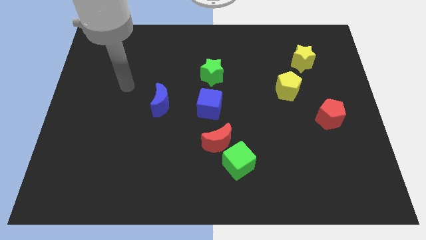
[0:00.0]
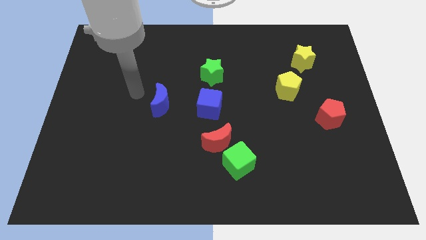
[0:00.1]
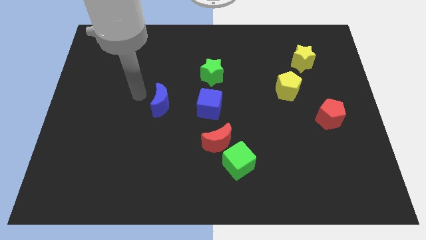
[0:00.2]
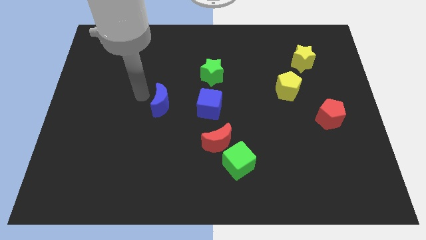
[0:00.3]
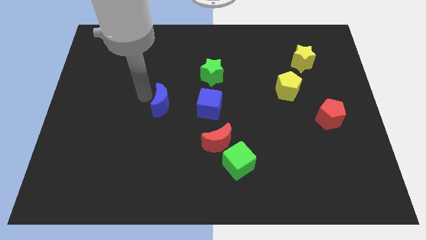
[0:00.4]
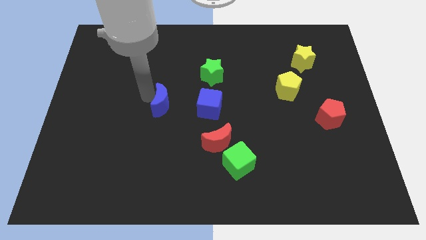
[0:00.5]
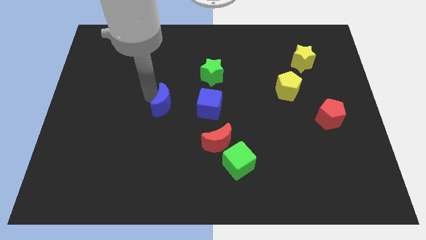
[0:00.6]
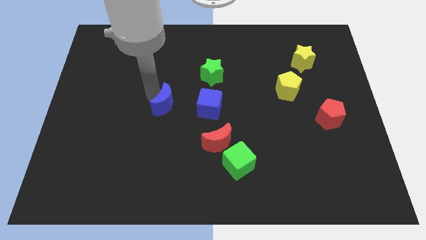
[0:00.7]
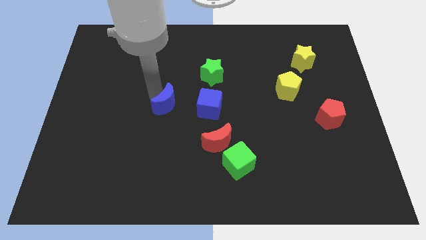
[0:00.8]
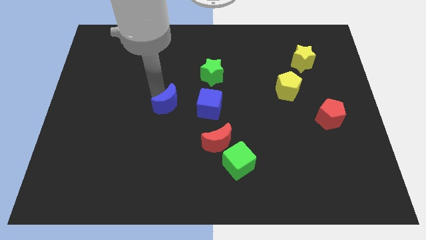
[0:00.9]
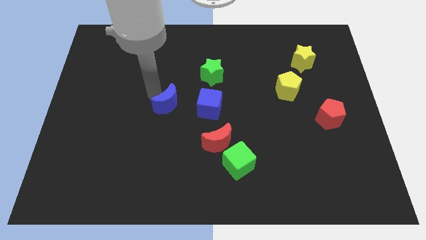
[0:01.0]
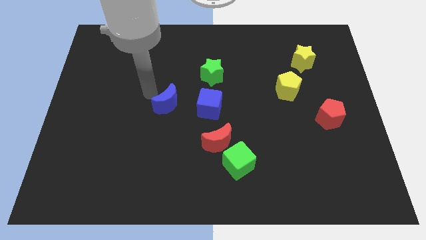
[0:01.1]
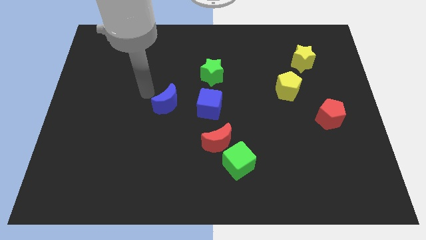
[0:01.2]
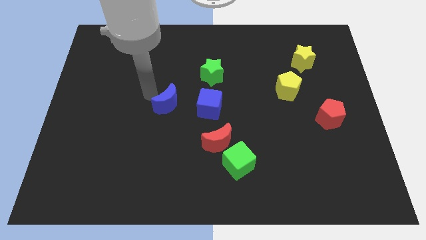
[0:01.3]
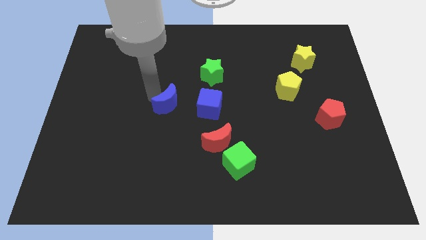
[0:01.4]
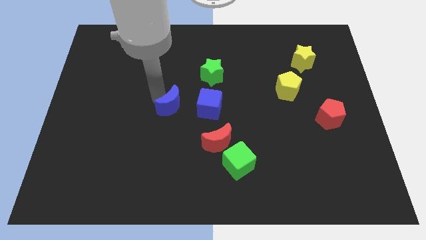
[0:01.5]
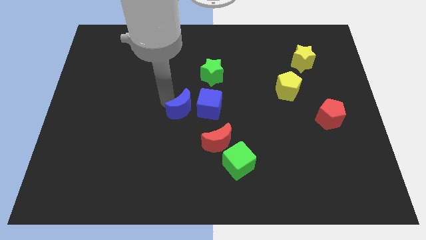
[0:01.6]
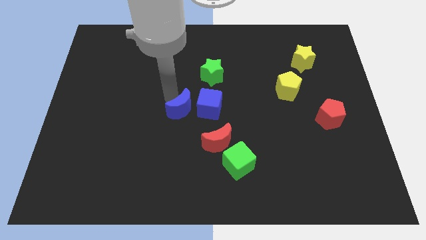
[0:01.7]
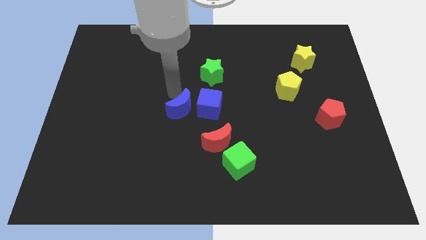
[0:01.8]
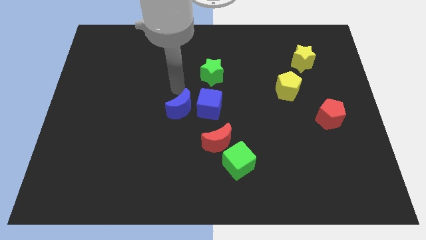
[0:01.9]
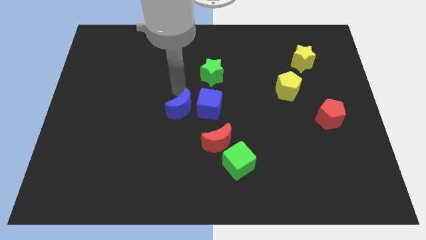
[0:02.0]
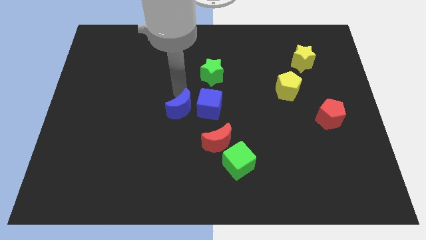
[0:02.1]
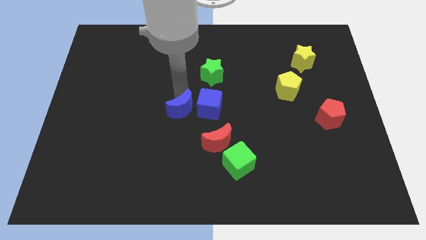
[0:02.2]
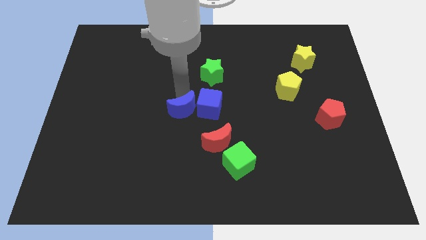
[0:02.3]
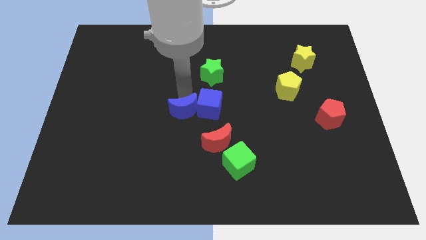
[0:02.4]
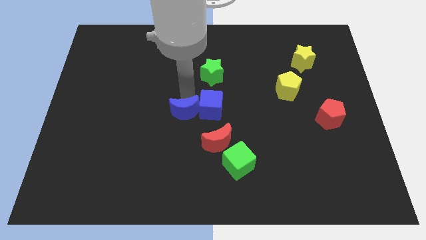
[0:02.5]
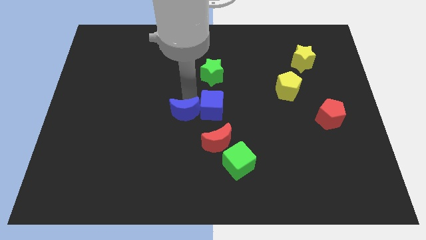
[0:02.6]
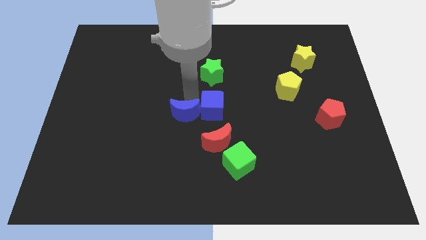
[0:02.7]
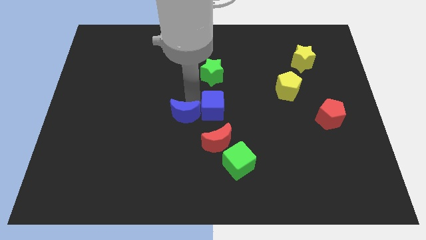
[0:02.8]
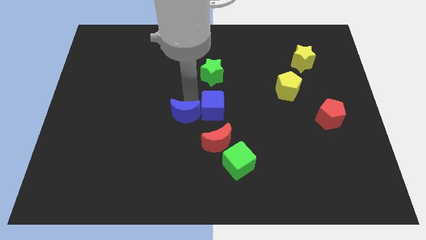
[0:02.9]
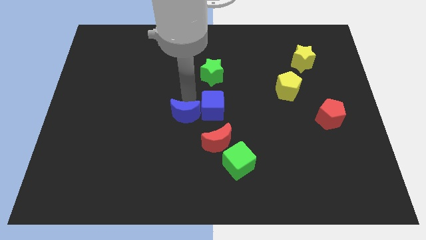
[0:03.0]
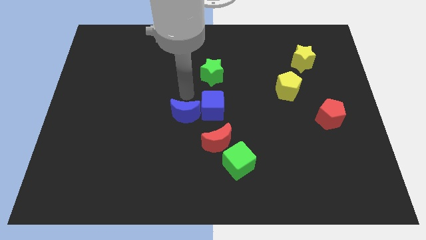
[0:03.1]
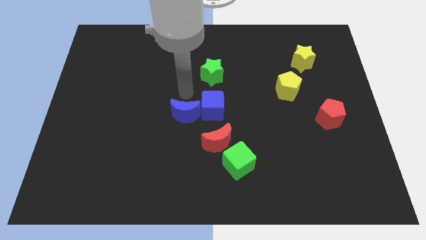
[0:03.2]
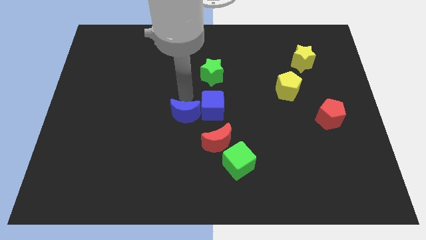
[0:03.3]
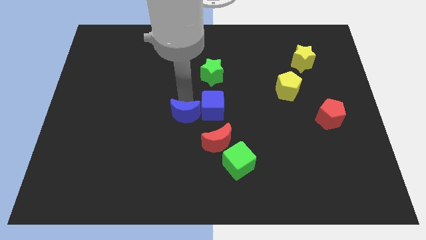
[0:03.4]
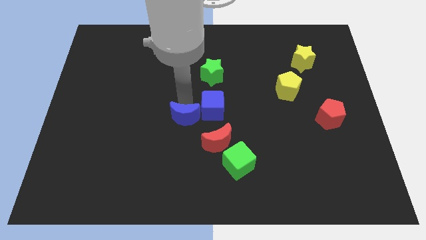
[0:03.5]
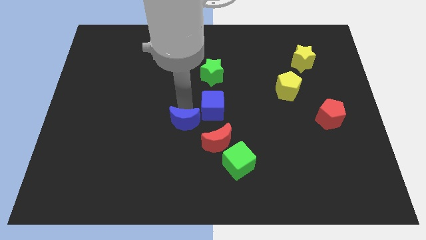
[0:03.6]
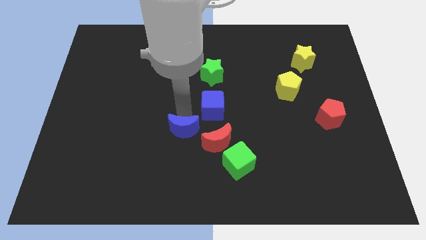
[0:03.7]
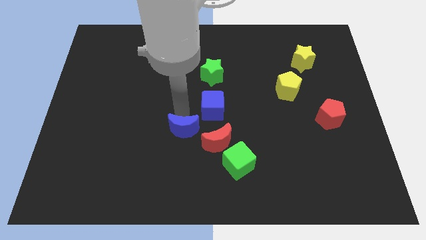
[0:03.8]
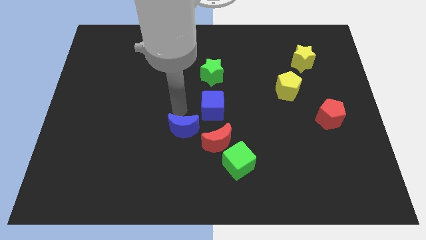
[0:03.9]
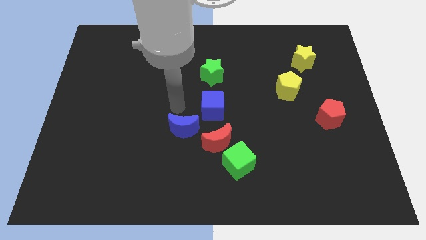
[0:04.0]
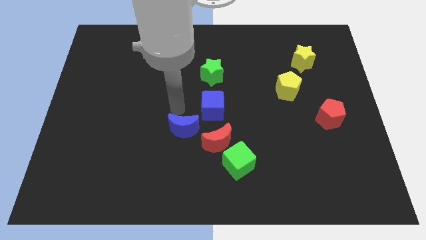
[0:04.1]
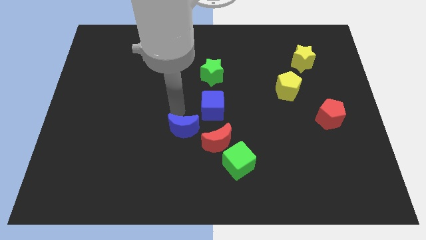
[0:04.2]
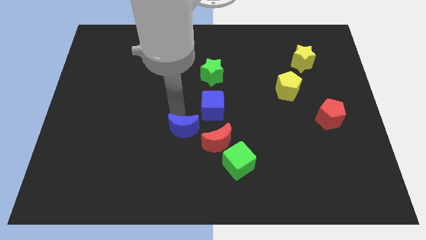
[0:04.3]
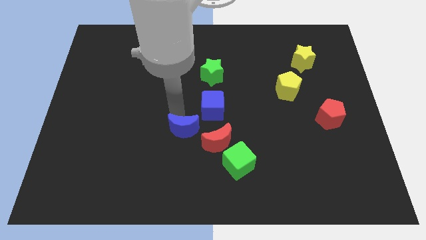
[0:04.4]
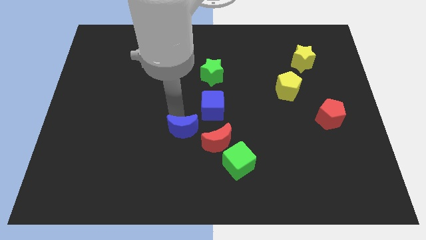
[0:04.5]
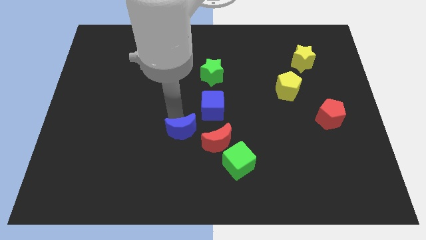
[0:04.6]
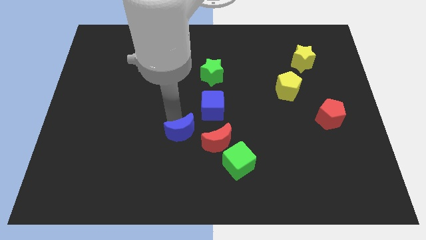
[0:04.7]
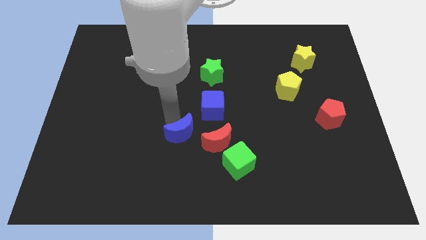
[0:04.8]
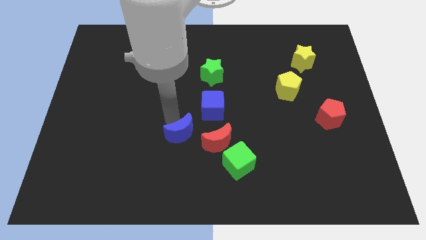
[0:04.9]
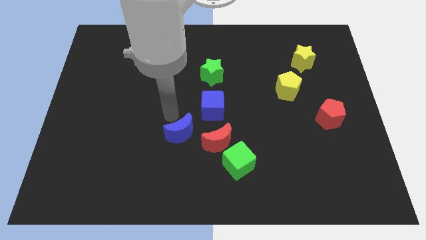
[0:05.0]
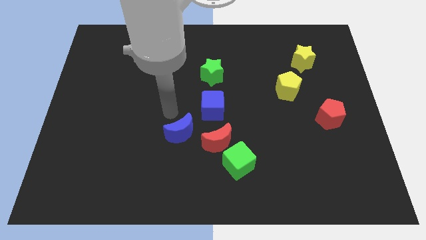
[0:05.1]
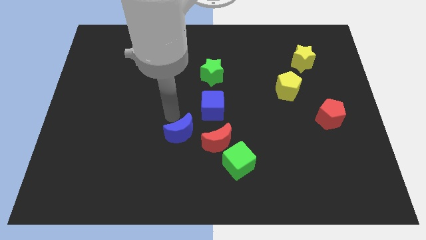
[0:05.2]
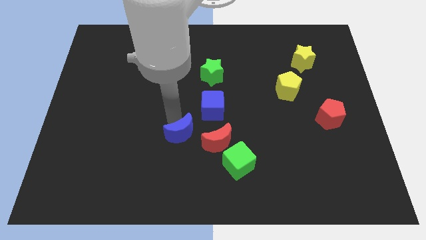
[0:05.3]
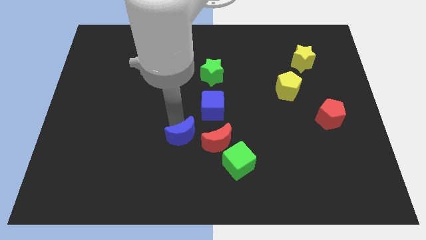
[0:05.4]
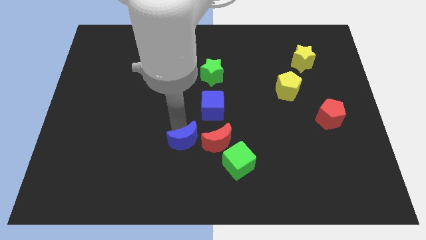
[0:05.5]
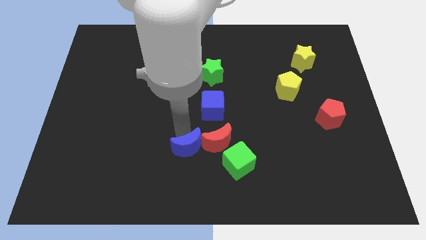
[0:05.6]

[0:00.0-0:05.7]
move the blue moon to the left of the green cube

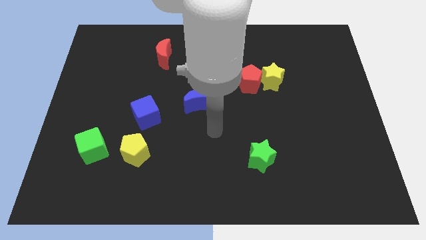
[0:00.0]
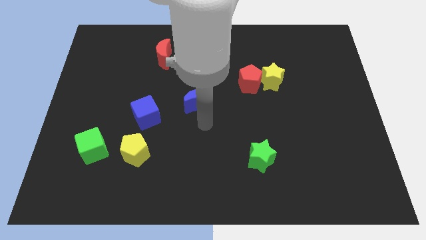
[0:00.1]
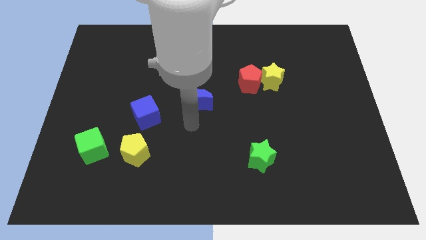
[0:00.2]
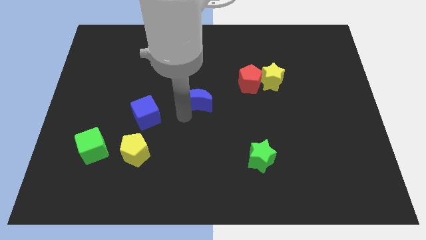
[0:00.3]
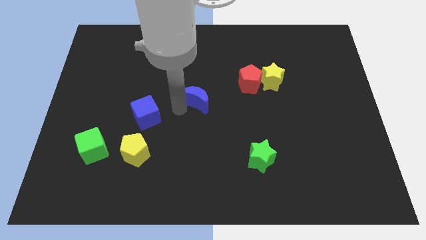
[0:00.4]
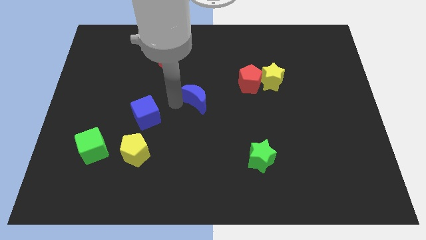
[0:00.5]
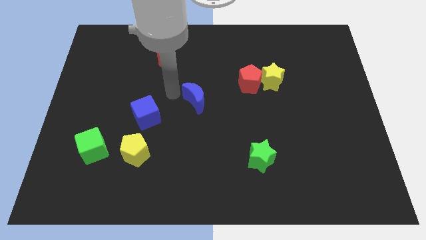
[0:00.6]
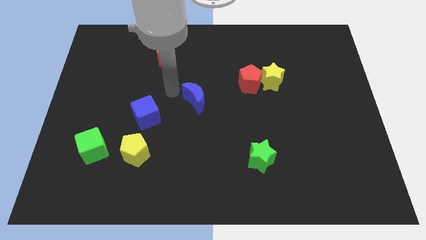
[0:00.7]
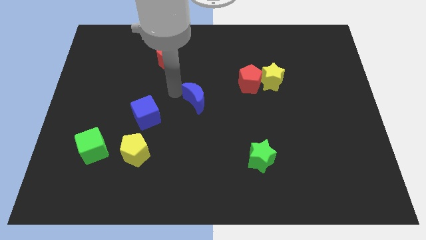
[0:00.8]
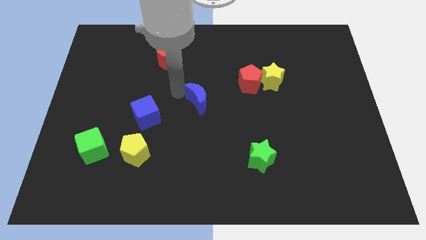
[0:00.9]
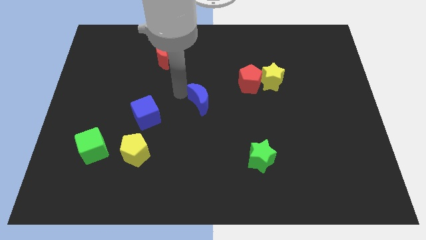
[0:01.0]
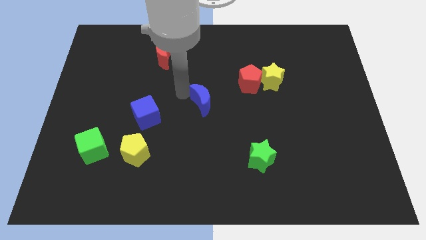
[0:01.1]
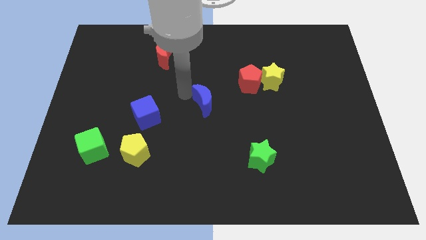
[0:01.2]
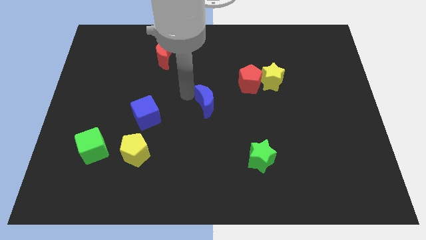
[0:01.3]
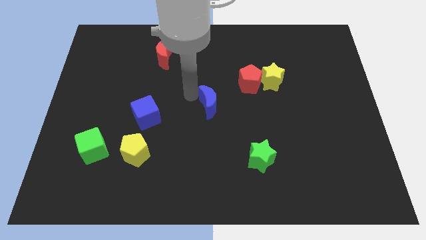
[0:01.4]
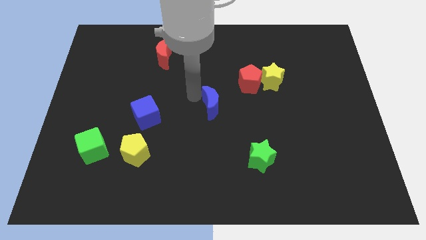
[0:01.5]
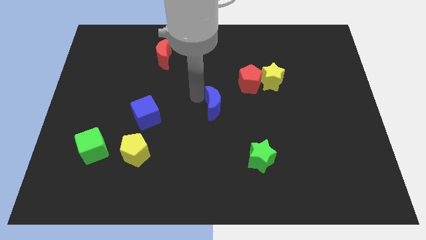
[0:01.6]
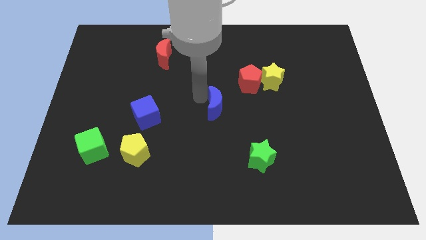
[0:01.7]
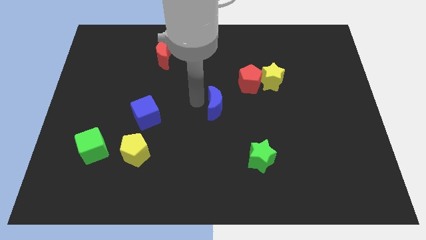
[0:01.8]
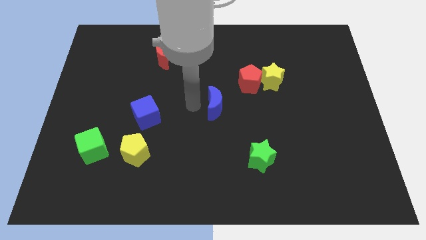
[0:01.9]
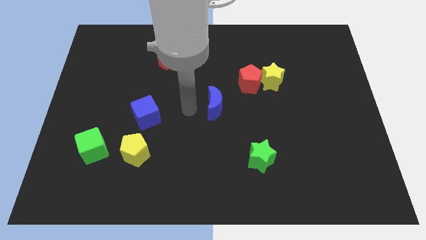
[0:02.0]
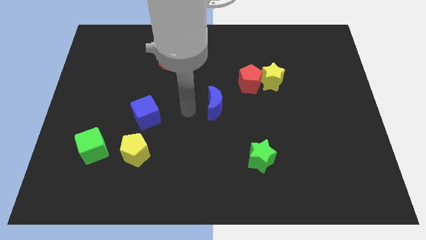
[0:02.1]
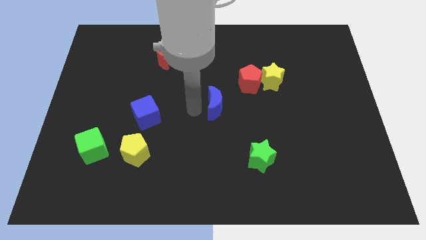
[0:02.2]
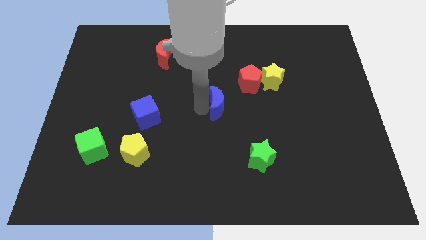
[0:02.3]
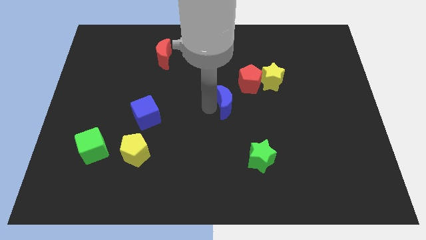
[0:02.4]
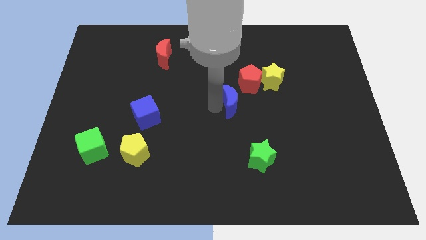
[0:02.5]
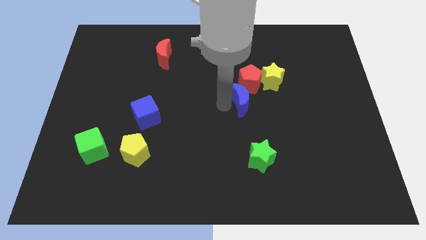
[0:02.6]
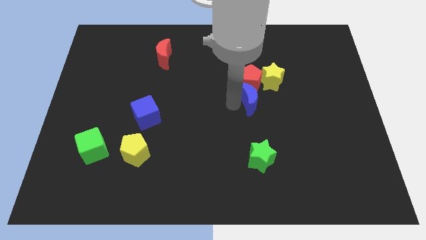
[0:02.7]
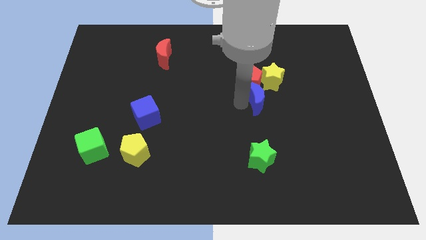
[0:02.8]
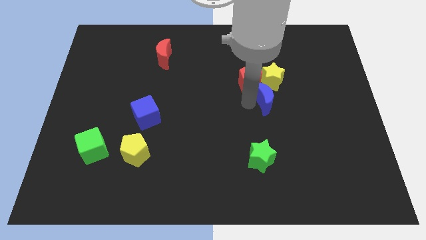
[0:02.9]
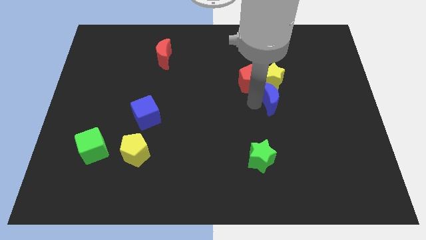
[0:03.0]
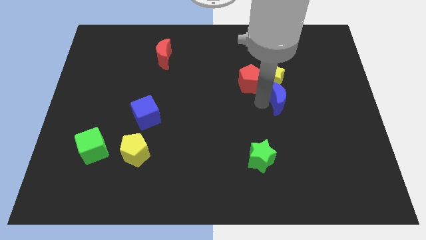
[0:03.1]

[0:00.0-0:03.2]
move the blue moon diagonally down and to the right of the yellow star
